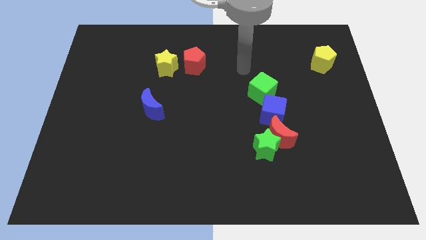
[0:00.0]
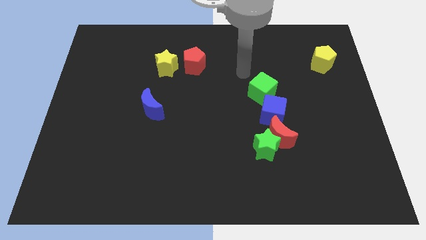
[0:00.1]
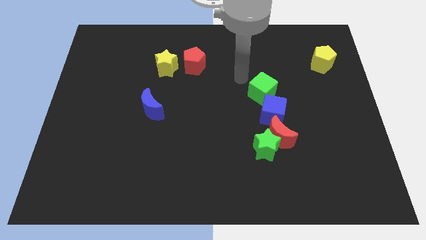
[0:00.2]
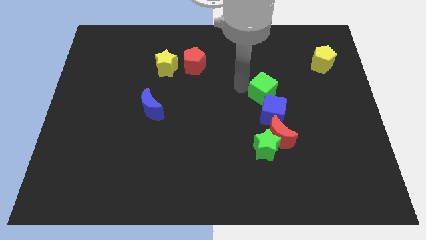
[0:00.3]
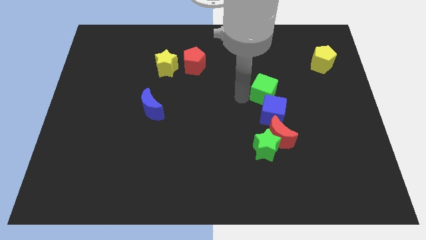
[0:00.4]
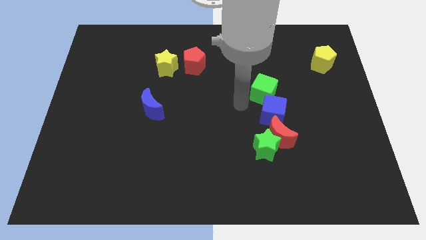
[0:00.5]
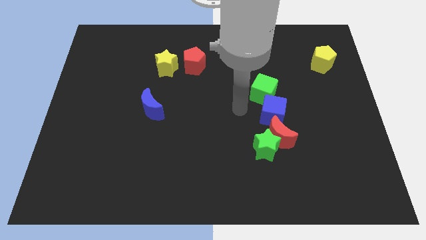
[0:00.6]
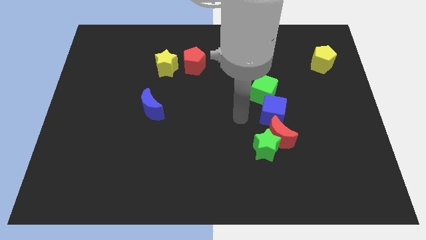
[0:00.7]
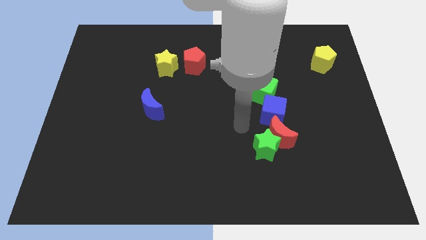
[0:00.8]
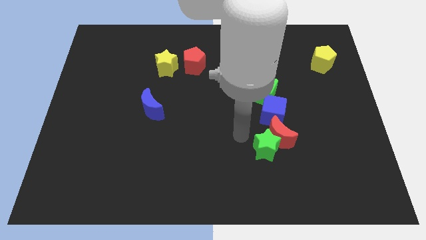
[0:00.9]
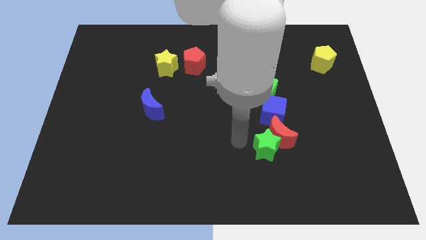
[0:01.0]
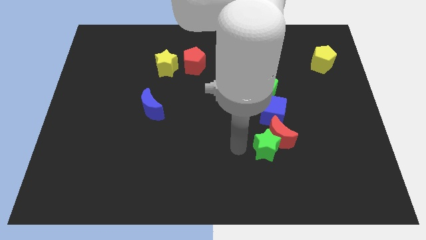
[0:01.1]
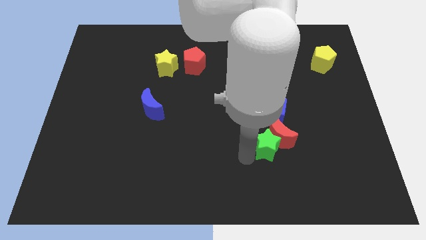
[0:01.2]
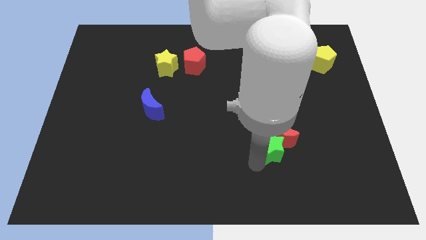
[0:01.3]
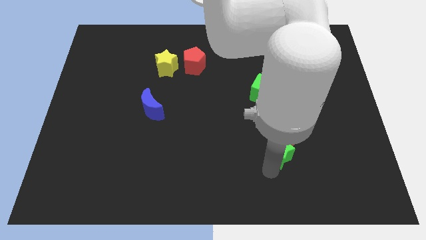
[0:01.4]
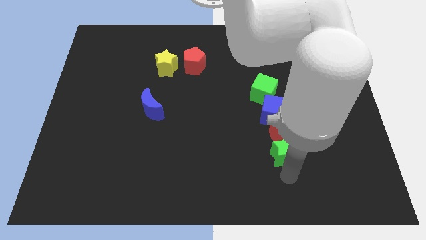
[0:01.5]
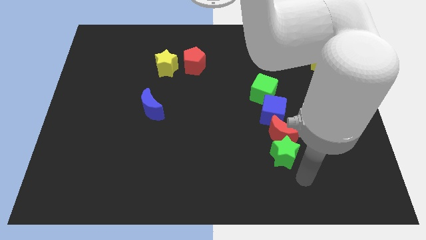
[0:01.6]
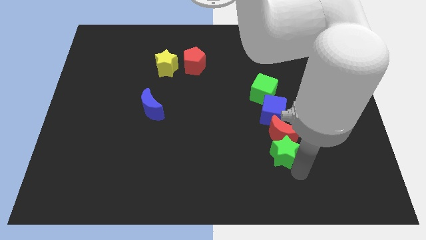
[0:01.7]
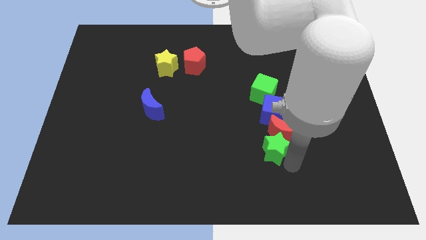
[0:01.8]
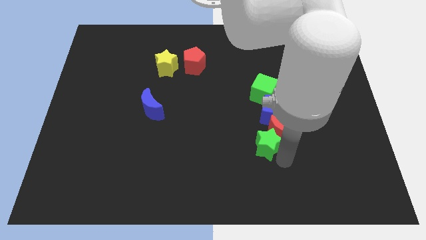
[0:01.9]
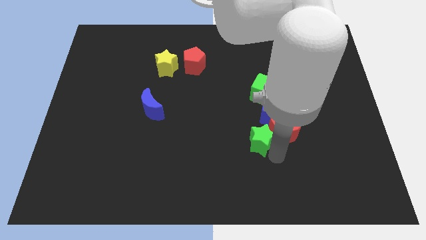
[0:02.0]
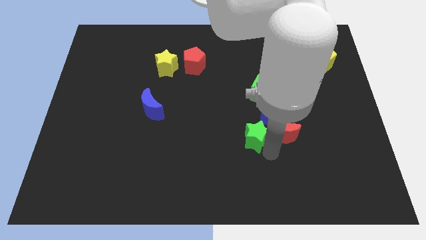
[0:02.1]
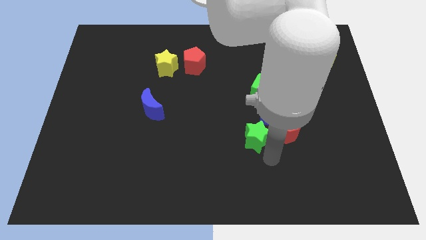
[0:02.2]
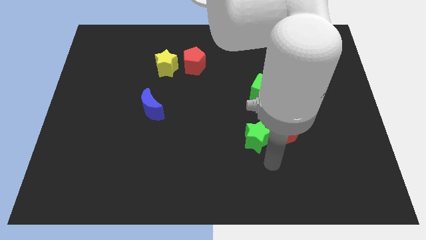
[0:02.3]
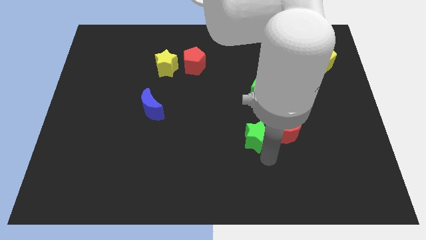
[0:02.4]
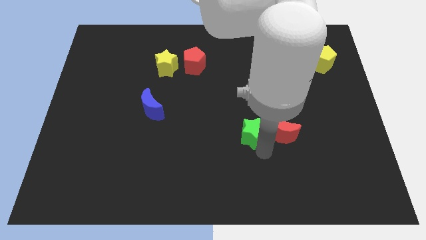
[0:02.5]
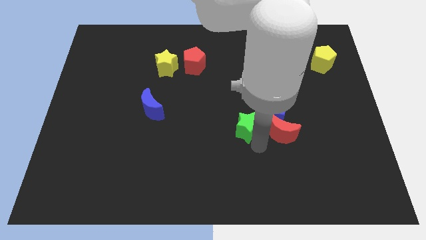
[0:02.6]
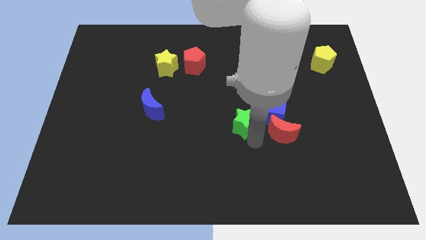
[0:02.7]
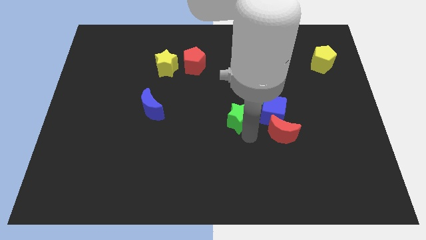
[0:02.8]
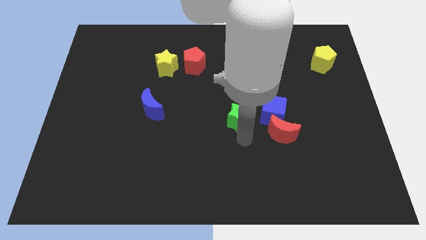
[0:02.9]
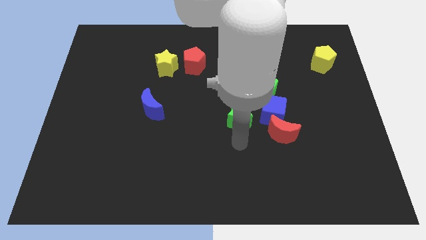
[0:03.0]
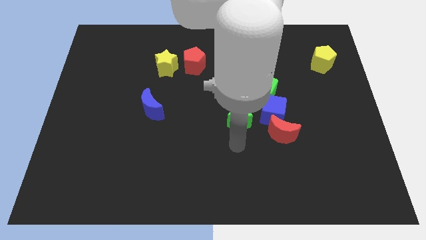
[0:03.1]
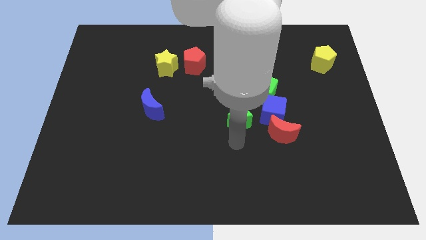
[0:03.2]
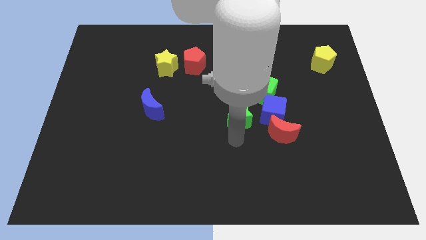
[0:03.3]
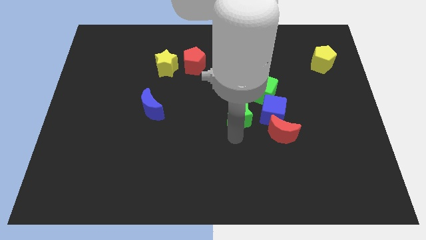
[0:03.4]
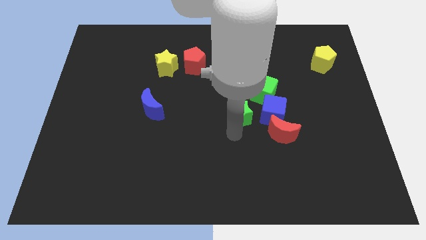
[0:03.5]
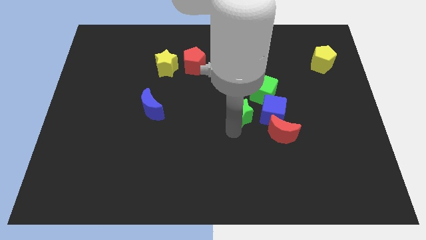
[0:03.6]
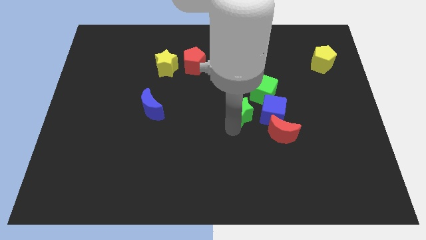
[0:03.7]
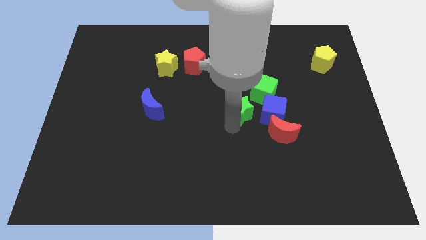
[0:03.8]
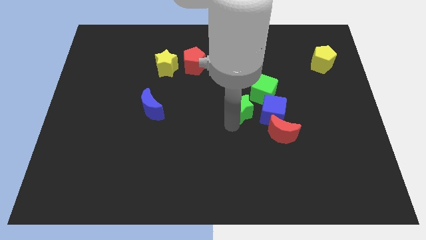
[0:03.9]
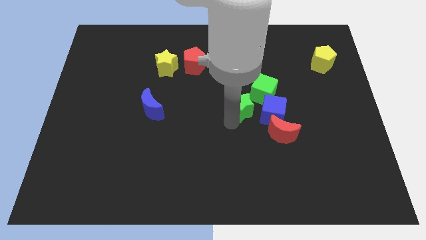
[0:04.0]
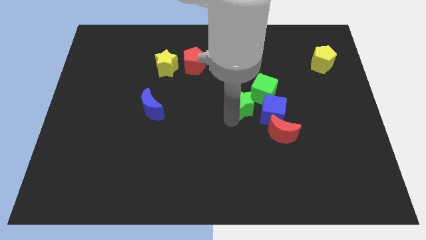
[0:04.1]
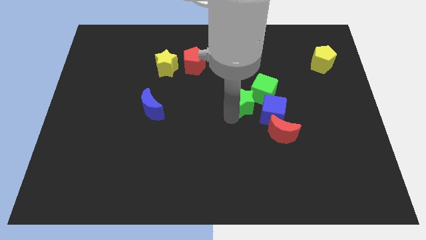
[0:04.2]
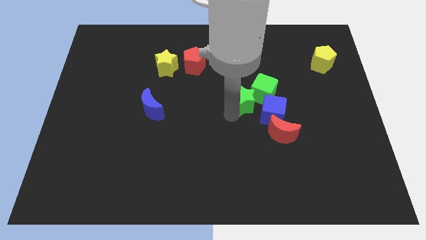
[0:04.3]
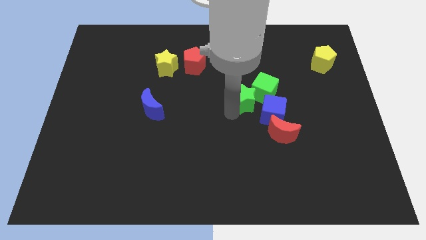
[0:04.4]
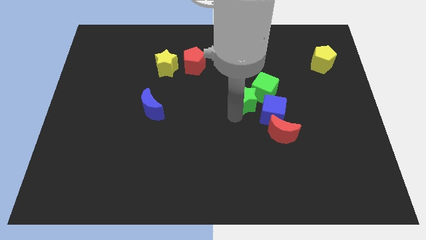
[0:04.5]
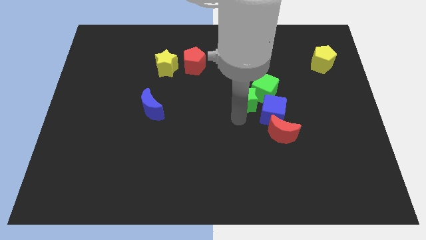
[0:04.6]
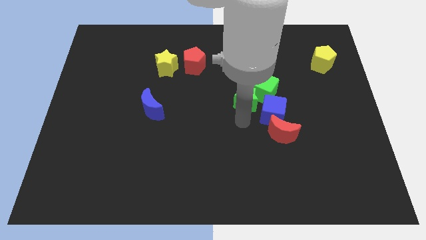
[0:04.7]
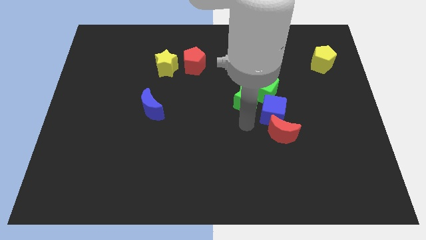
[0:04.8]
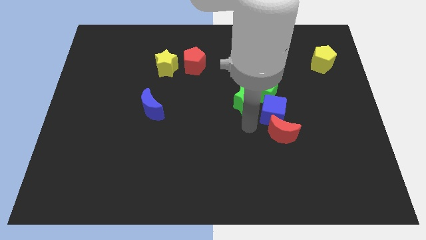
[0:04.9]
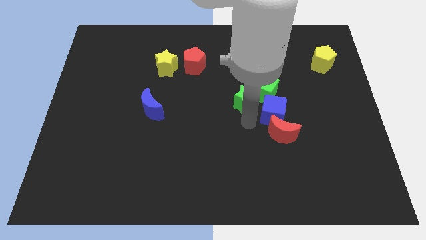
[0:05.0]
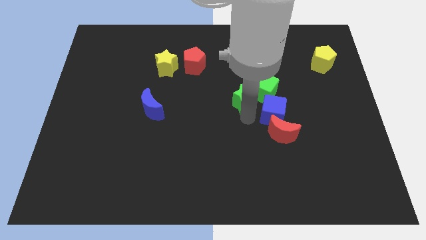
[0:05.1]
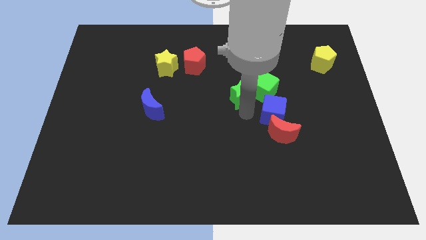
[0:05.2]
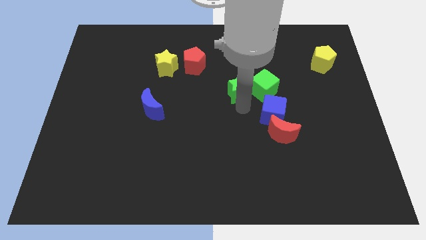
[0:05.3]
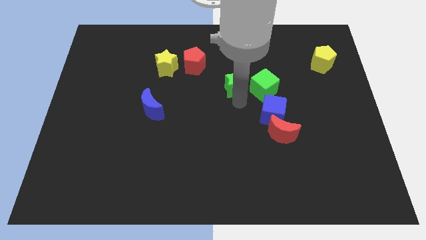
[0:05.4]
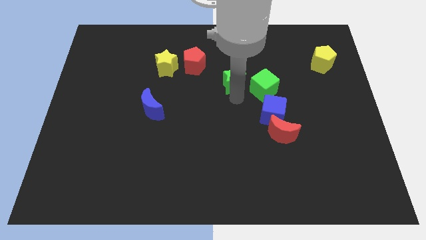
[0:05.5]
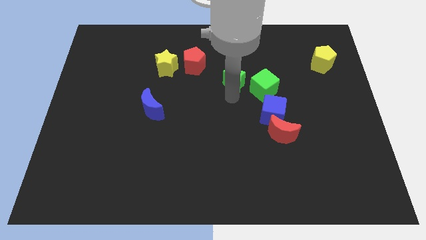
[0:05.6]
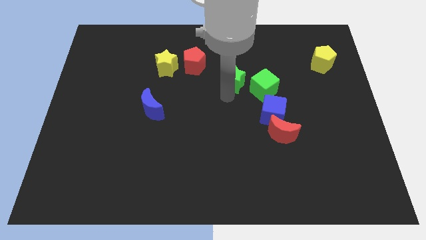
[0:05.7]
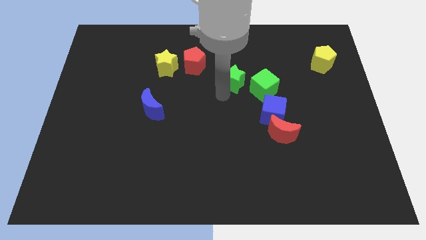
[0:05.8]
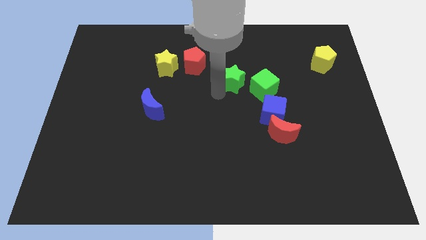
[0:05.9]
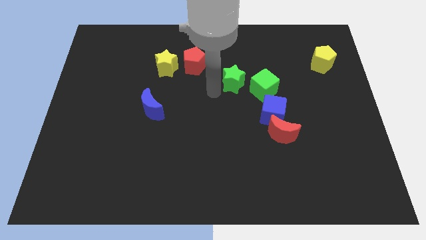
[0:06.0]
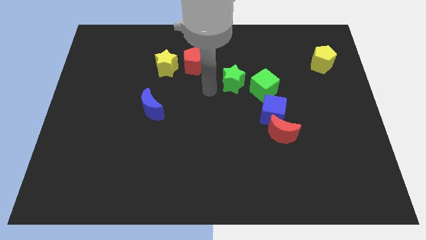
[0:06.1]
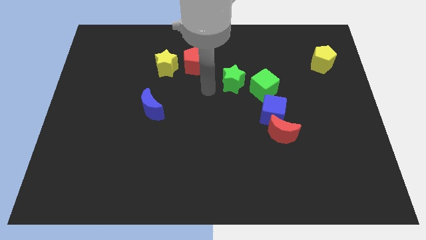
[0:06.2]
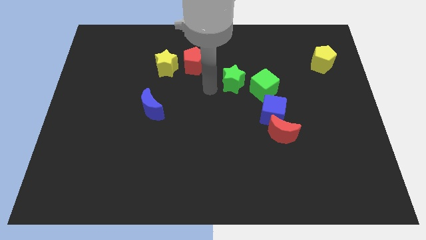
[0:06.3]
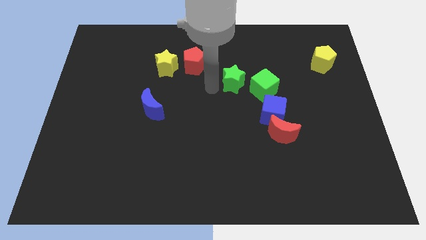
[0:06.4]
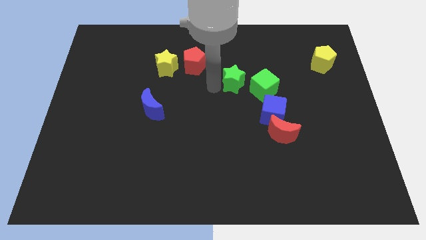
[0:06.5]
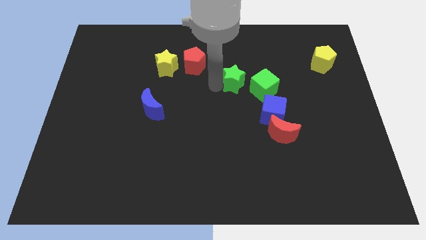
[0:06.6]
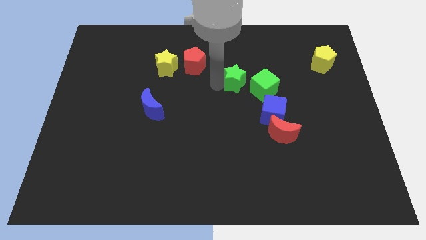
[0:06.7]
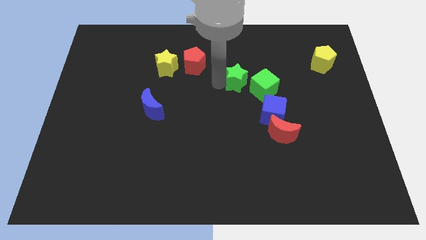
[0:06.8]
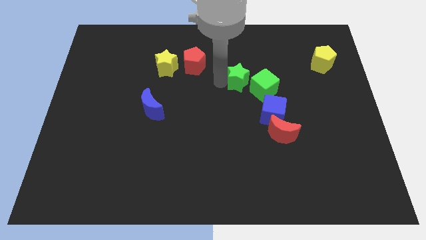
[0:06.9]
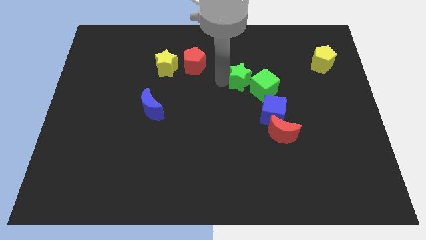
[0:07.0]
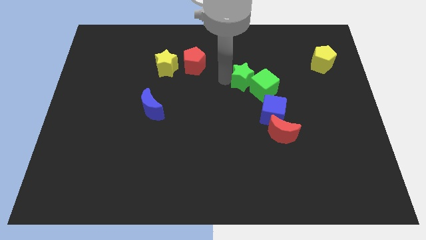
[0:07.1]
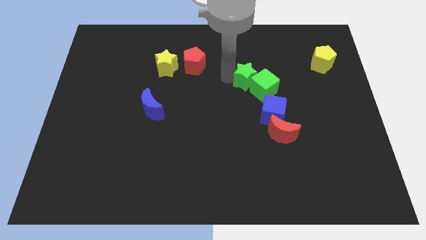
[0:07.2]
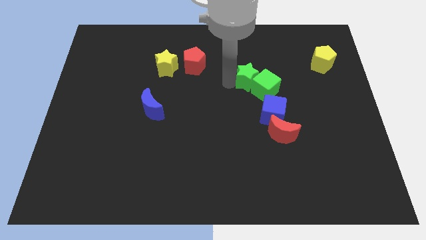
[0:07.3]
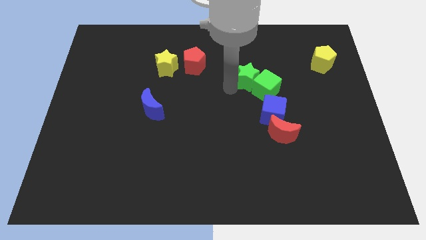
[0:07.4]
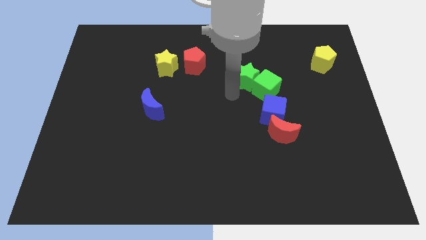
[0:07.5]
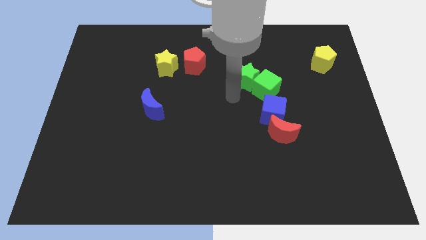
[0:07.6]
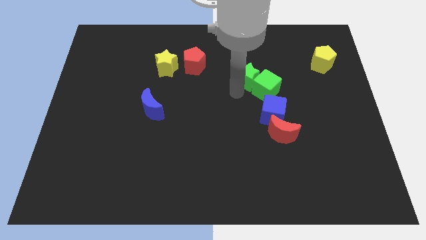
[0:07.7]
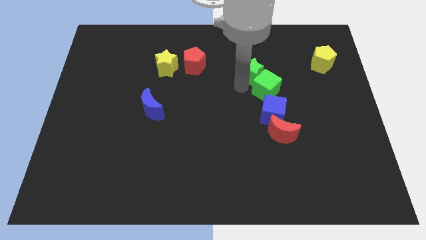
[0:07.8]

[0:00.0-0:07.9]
slide the green star above the green cube
